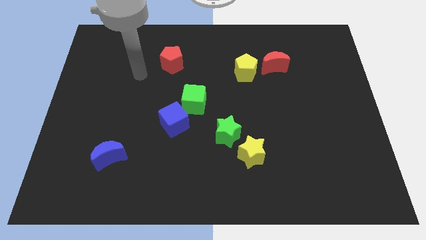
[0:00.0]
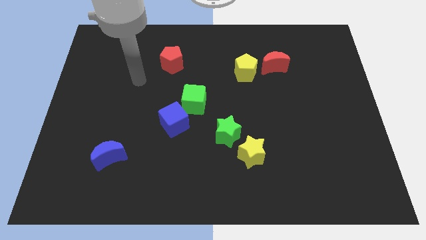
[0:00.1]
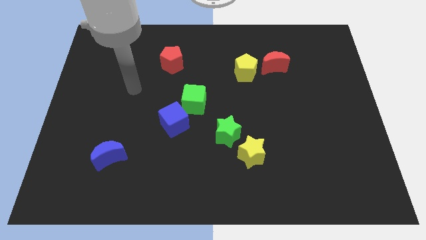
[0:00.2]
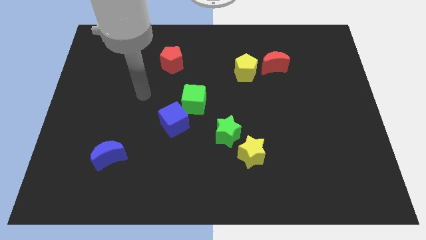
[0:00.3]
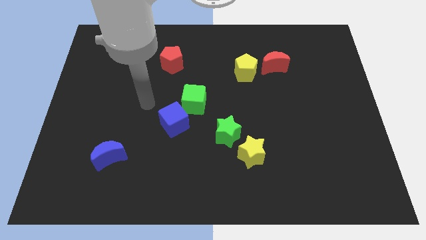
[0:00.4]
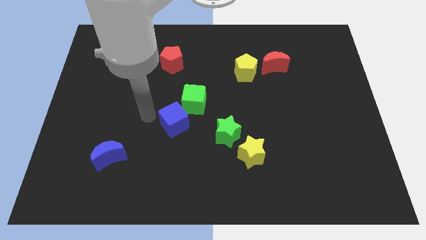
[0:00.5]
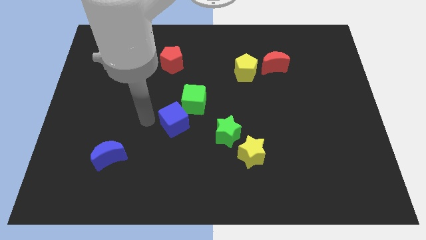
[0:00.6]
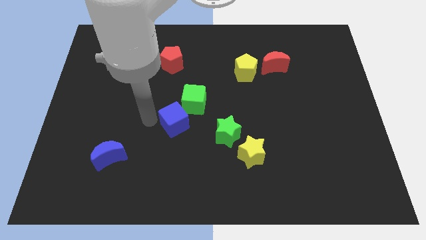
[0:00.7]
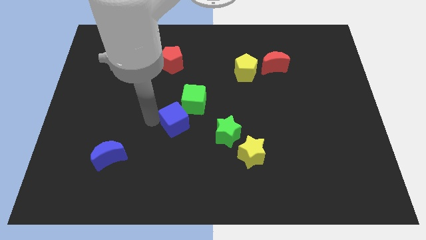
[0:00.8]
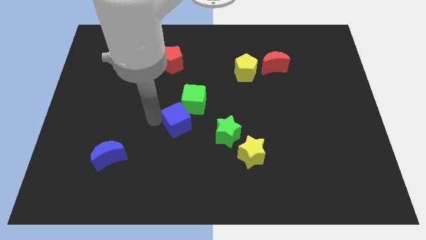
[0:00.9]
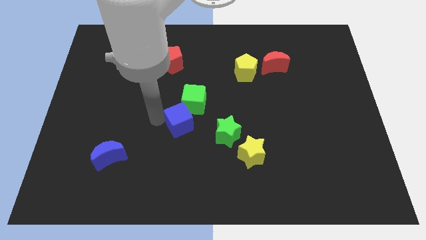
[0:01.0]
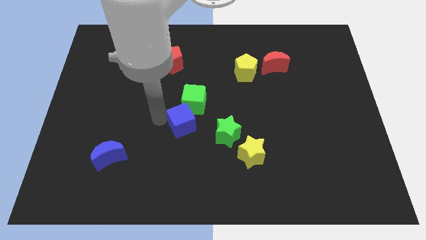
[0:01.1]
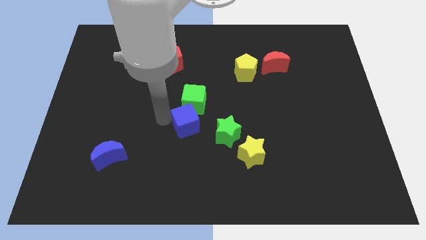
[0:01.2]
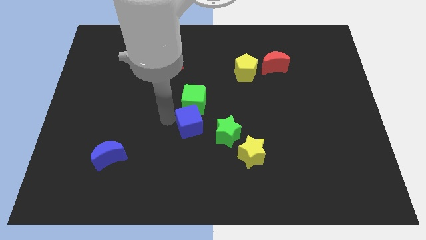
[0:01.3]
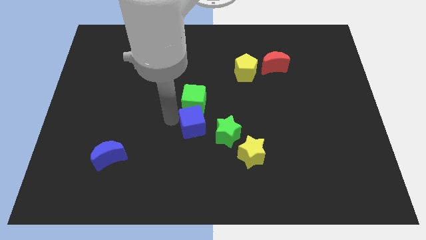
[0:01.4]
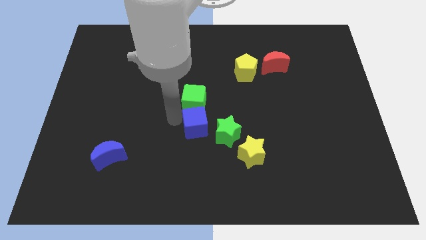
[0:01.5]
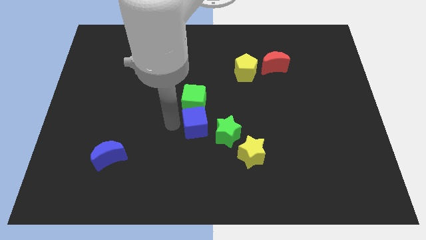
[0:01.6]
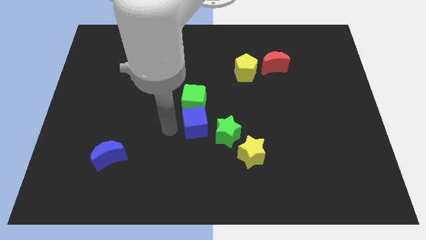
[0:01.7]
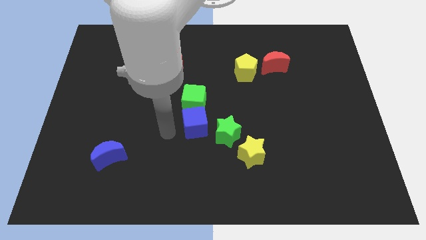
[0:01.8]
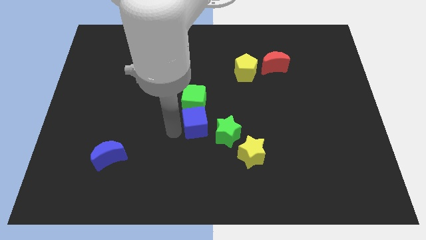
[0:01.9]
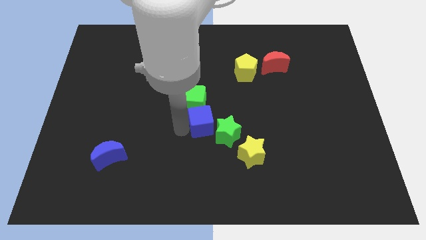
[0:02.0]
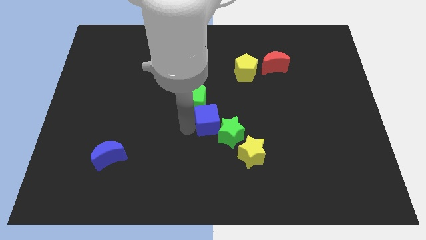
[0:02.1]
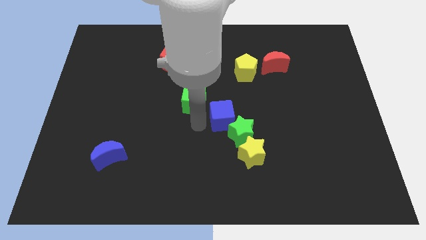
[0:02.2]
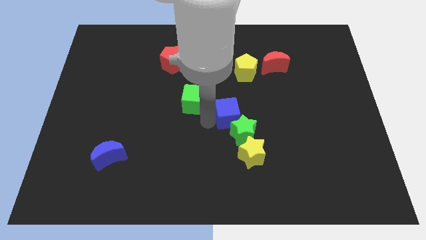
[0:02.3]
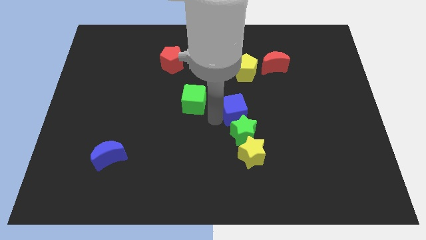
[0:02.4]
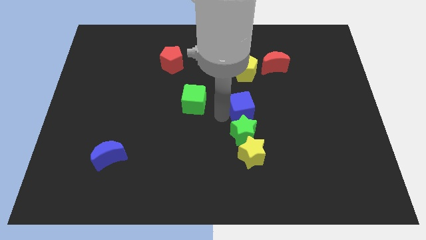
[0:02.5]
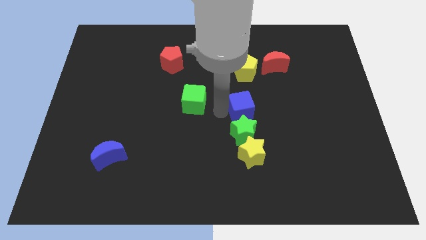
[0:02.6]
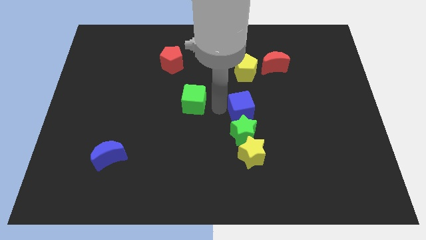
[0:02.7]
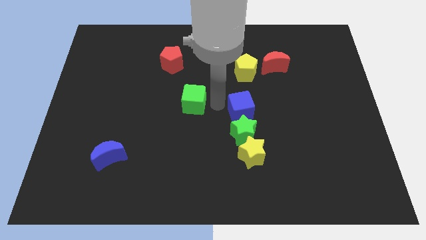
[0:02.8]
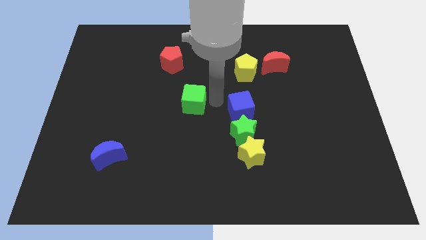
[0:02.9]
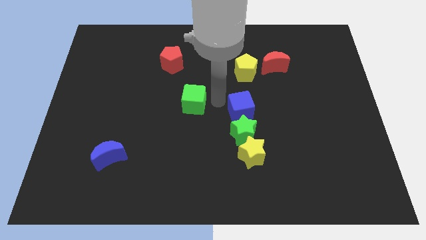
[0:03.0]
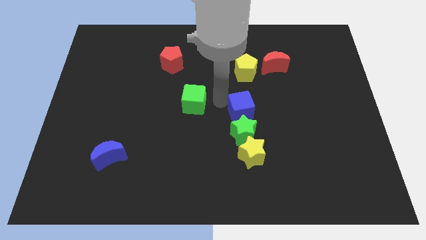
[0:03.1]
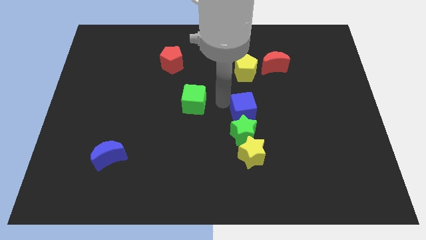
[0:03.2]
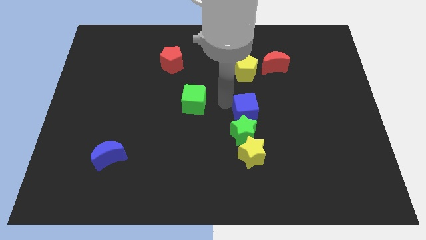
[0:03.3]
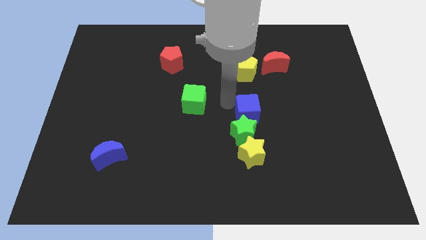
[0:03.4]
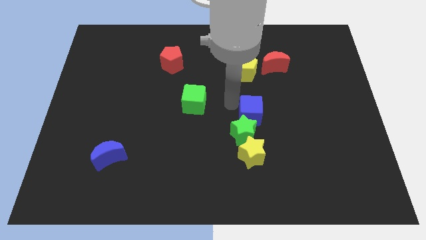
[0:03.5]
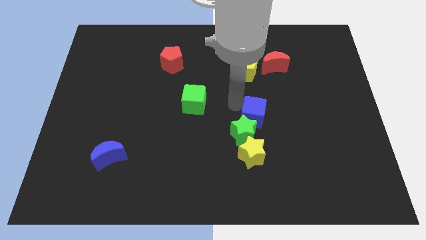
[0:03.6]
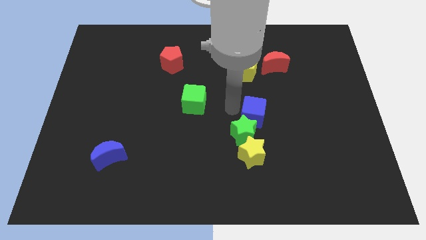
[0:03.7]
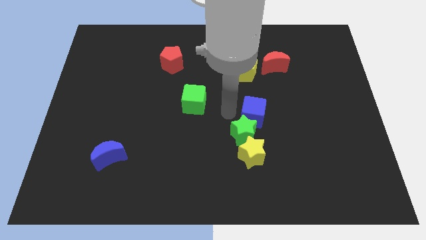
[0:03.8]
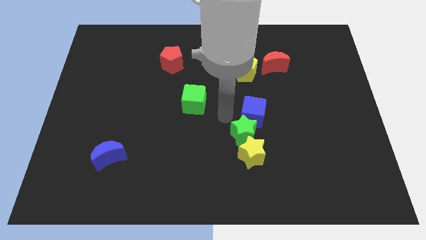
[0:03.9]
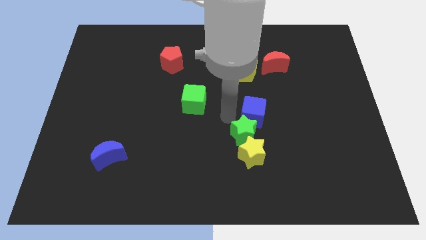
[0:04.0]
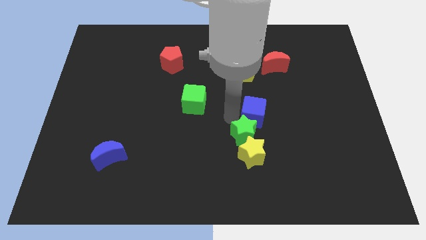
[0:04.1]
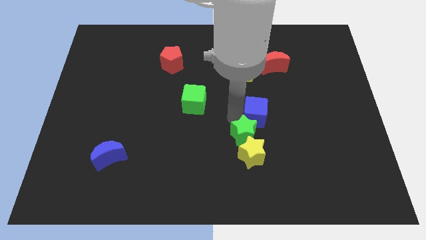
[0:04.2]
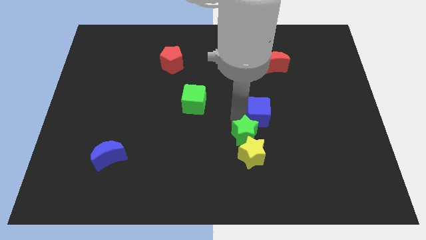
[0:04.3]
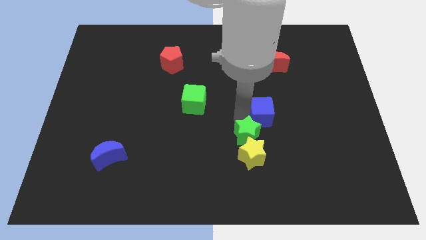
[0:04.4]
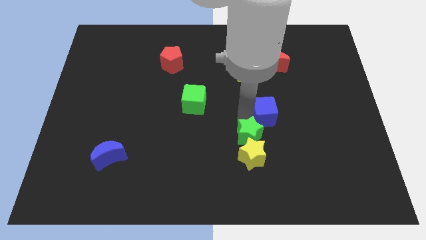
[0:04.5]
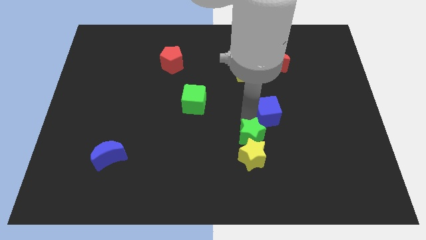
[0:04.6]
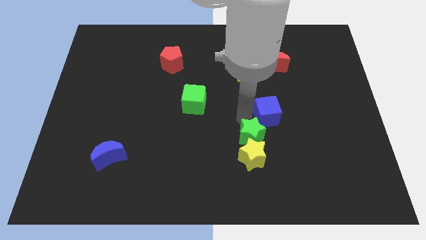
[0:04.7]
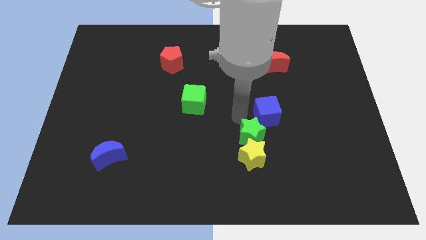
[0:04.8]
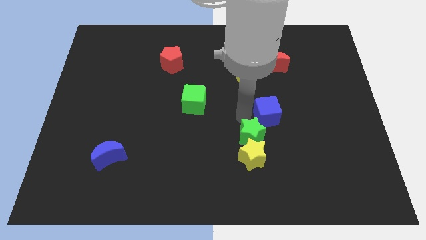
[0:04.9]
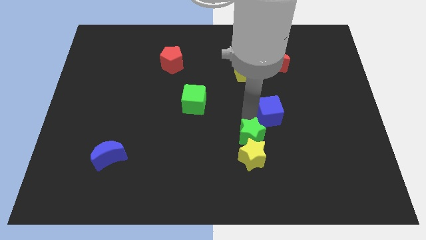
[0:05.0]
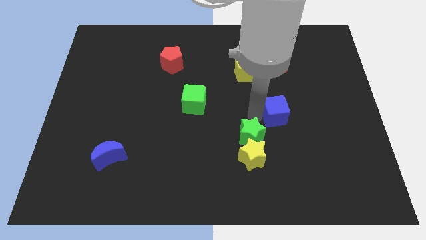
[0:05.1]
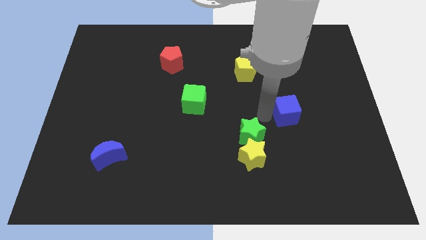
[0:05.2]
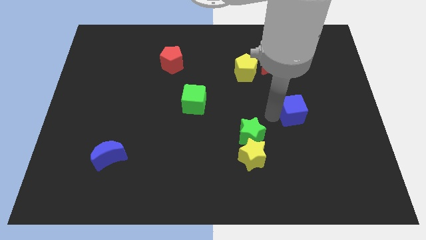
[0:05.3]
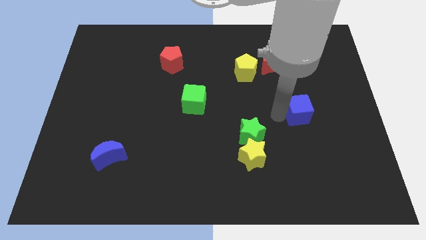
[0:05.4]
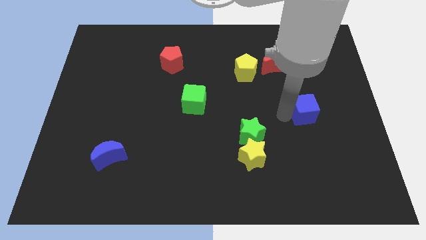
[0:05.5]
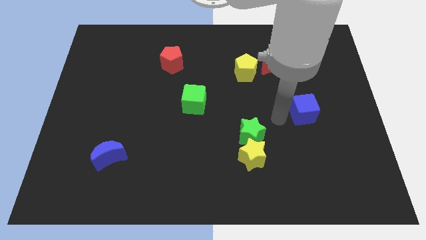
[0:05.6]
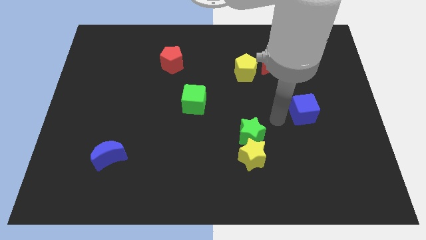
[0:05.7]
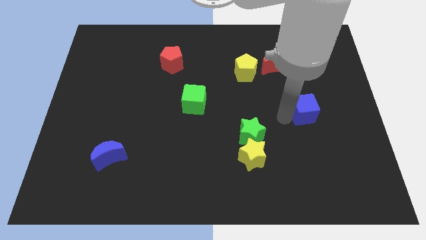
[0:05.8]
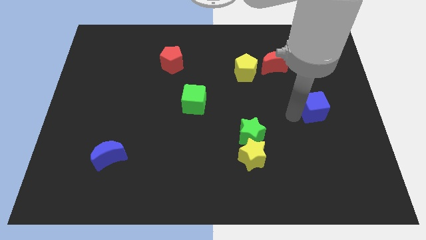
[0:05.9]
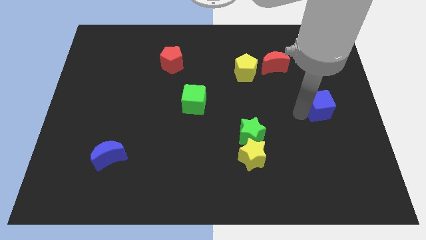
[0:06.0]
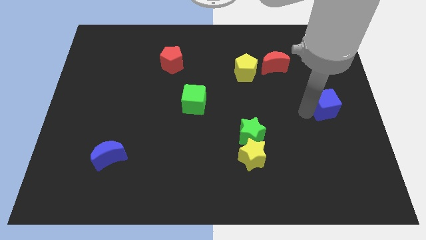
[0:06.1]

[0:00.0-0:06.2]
move the blue cube to the right side of the board

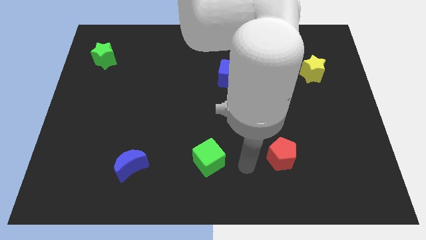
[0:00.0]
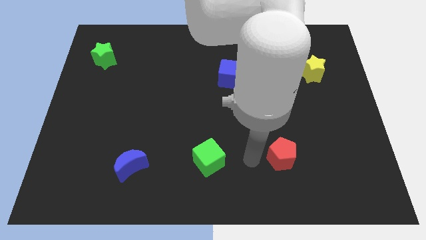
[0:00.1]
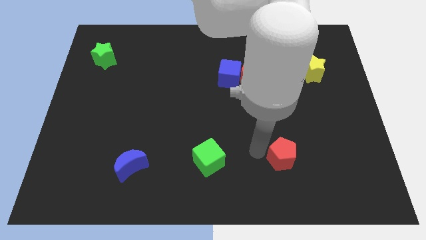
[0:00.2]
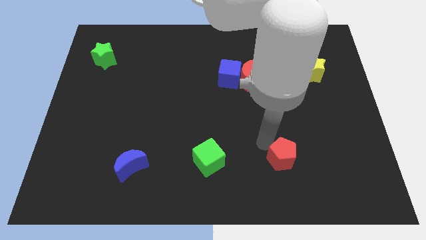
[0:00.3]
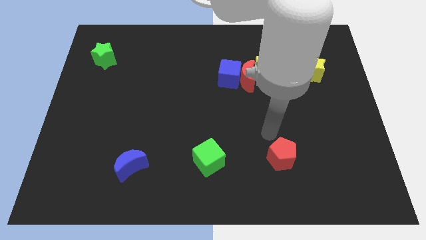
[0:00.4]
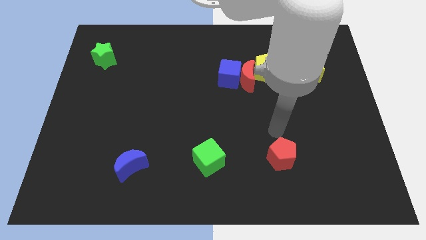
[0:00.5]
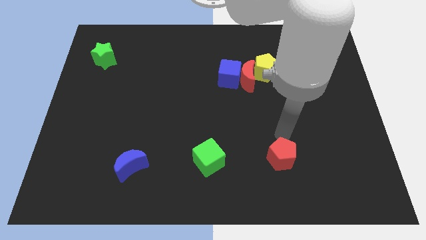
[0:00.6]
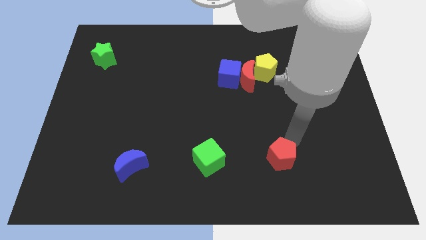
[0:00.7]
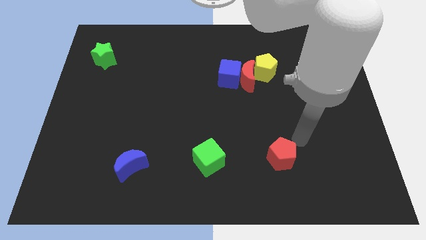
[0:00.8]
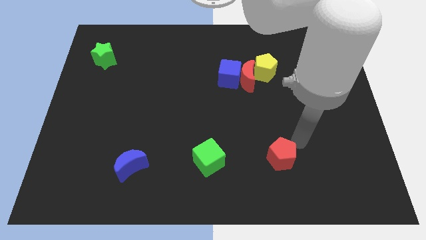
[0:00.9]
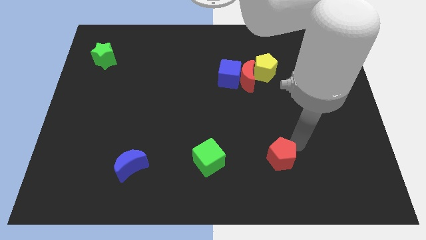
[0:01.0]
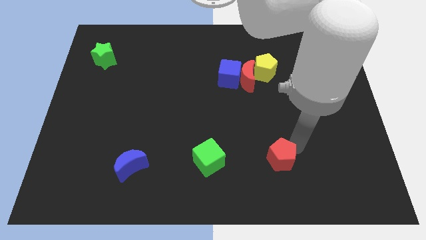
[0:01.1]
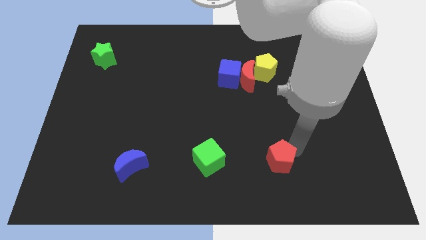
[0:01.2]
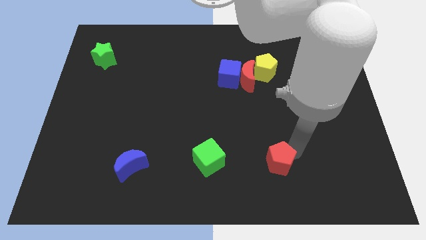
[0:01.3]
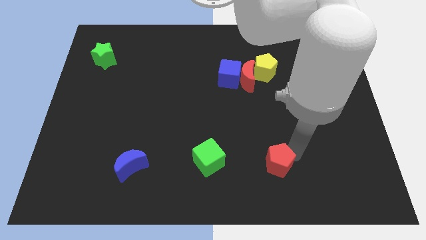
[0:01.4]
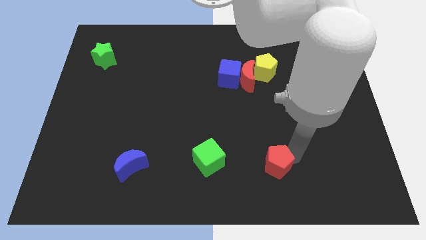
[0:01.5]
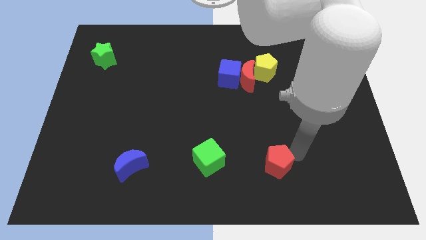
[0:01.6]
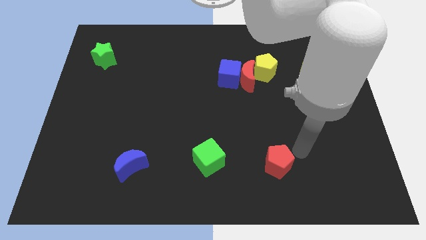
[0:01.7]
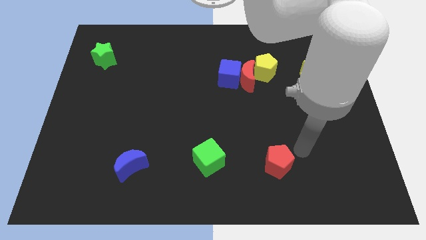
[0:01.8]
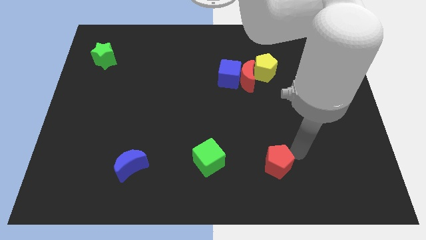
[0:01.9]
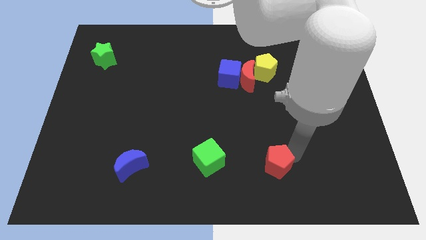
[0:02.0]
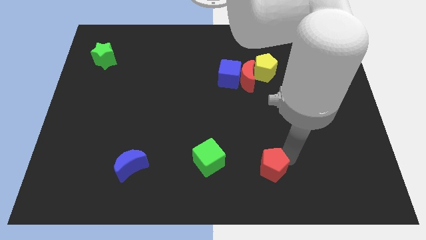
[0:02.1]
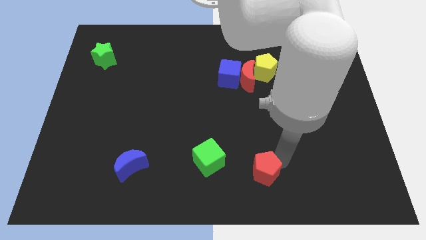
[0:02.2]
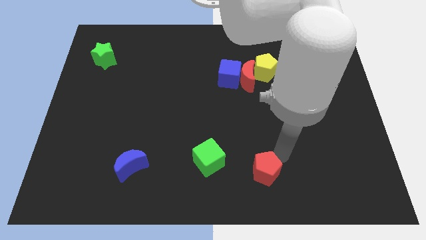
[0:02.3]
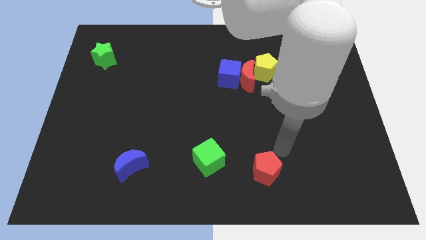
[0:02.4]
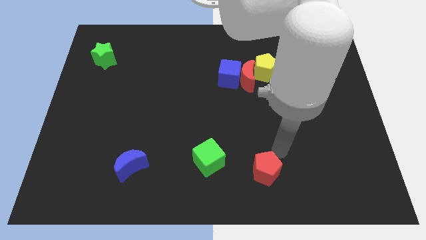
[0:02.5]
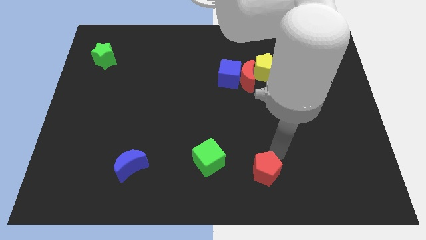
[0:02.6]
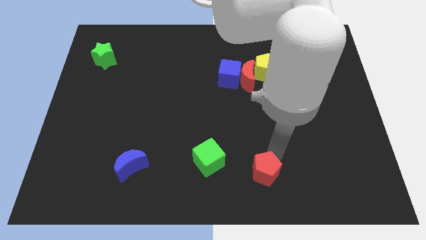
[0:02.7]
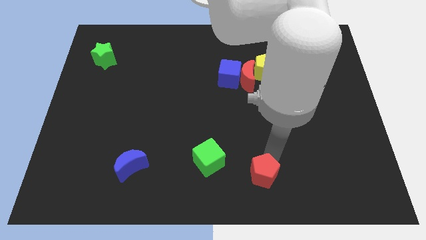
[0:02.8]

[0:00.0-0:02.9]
put the red pentagon to the bottom
